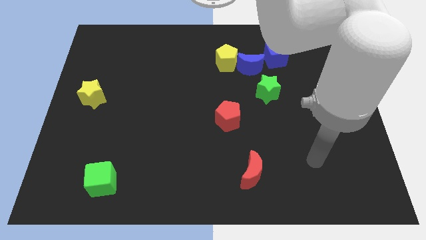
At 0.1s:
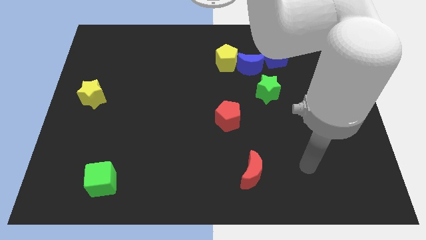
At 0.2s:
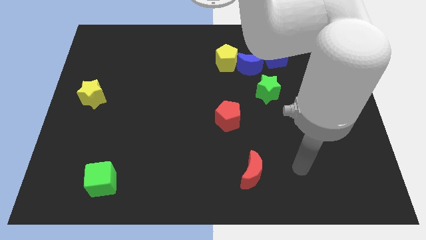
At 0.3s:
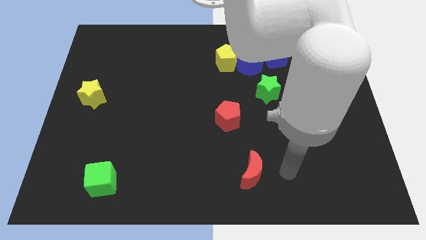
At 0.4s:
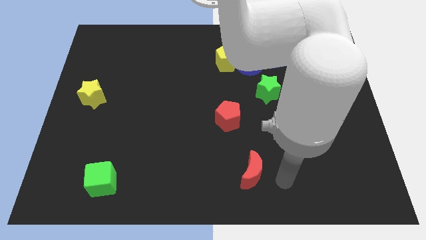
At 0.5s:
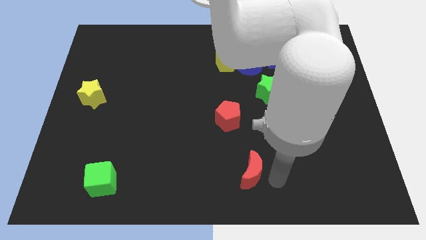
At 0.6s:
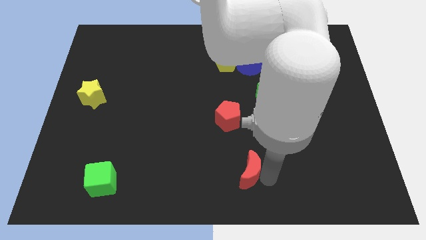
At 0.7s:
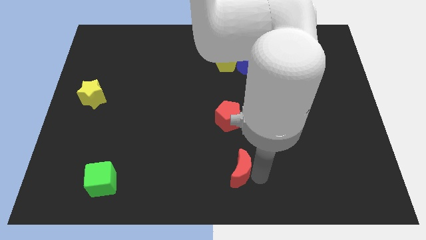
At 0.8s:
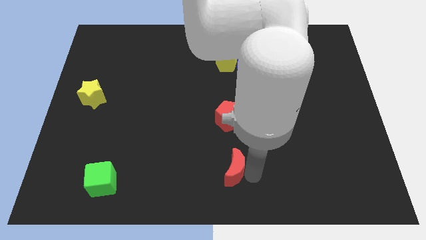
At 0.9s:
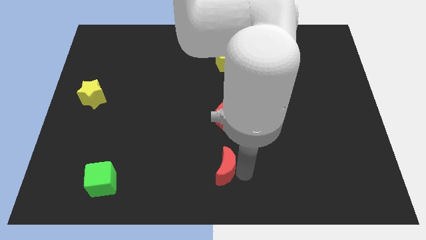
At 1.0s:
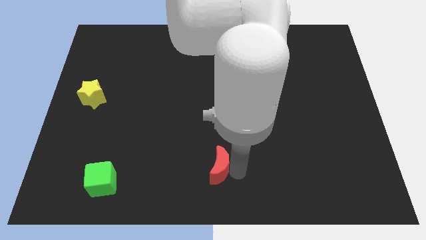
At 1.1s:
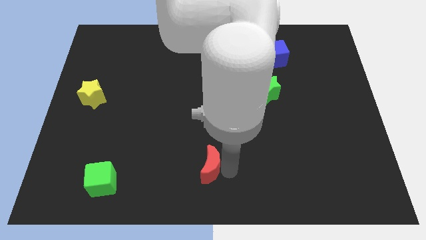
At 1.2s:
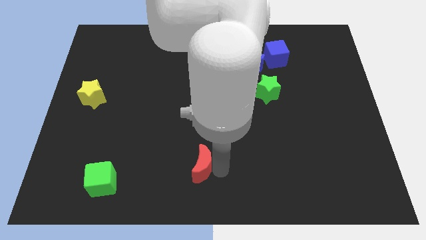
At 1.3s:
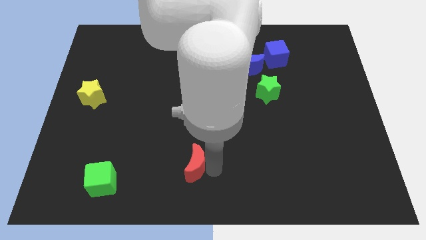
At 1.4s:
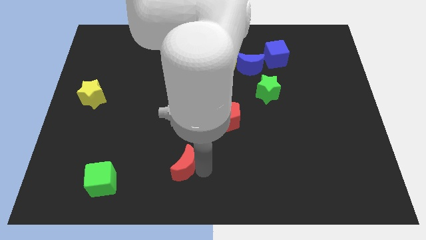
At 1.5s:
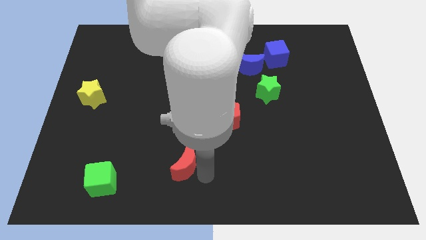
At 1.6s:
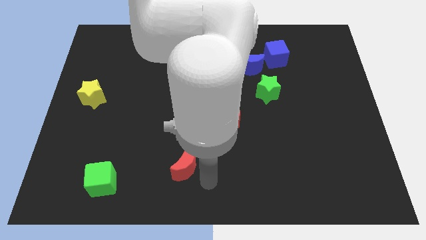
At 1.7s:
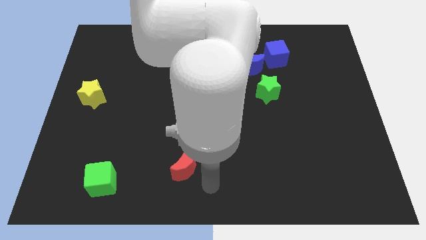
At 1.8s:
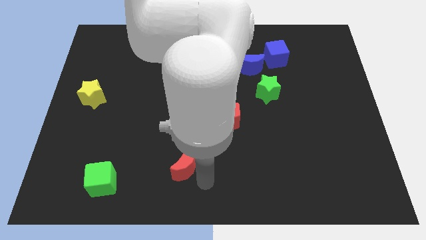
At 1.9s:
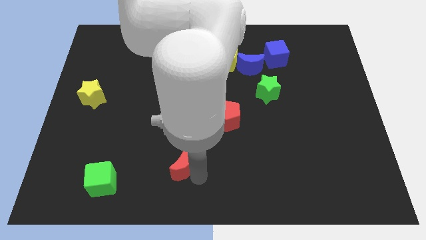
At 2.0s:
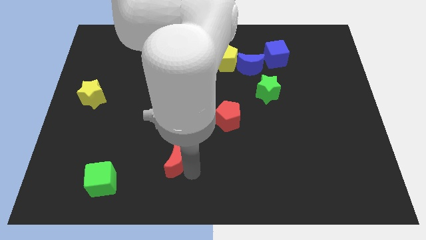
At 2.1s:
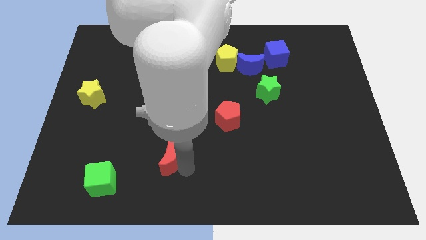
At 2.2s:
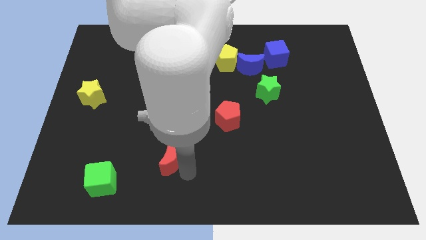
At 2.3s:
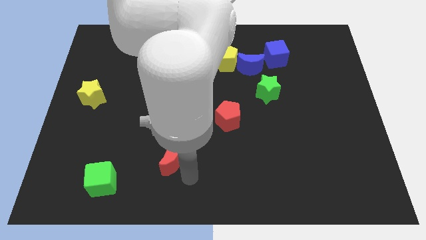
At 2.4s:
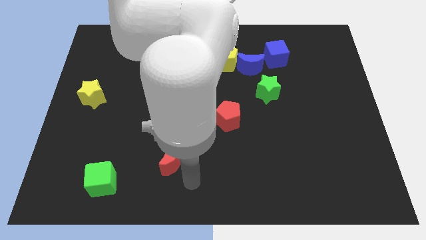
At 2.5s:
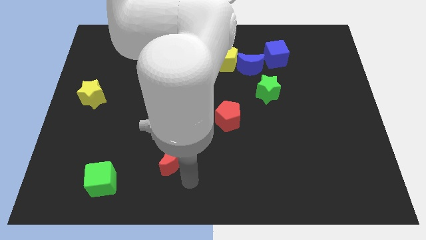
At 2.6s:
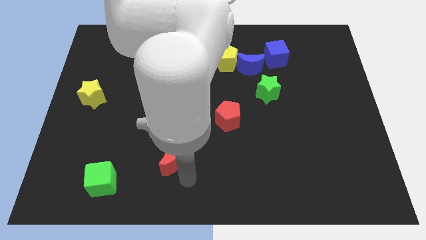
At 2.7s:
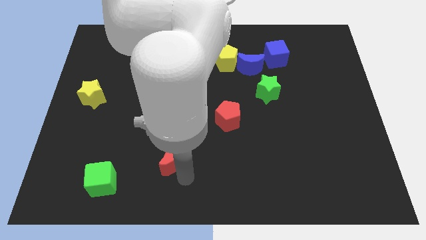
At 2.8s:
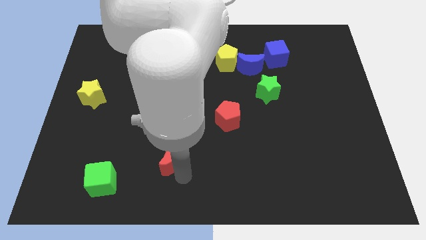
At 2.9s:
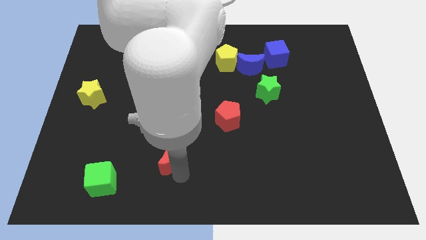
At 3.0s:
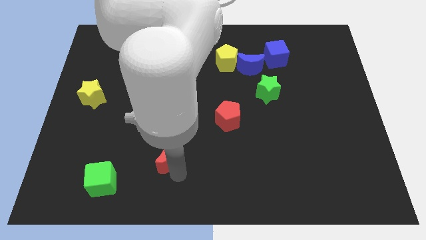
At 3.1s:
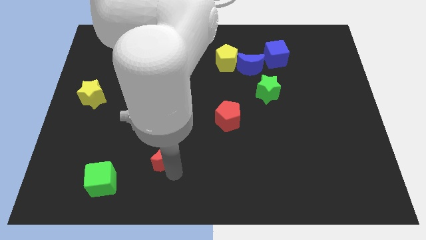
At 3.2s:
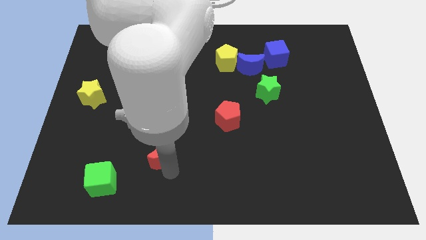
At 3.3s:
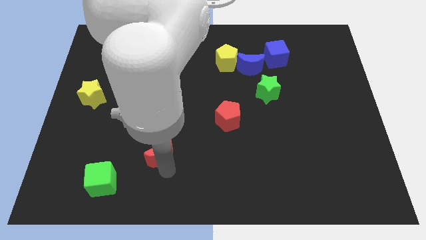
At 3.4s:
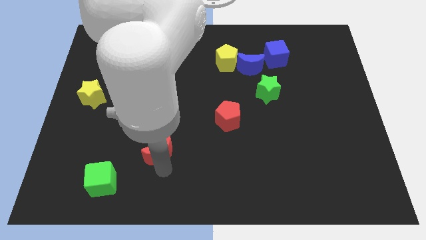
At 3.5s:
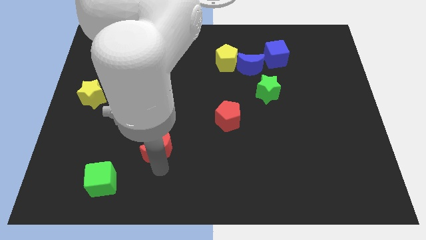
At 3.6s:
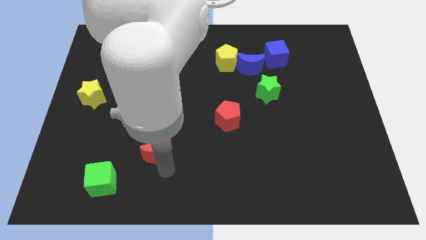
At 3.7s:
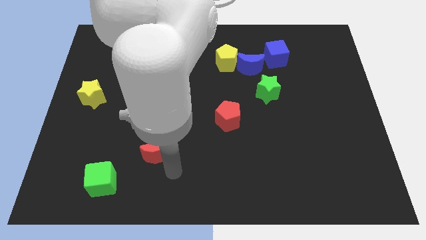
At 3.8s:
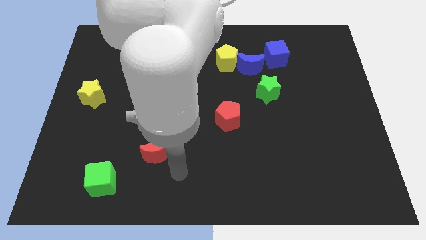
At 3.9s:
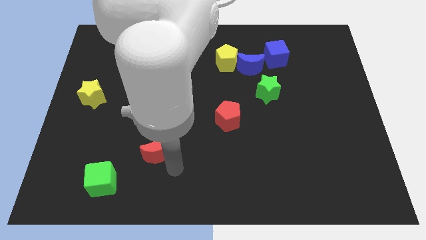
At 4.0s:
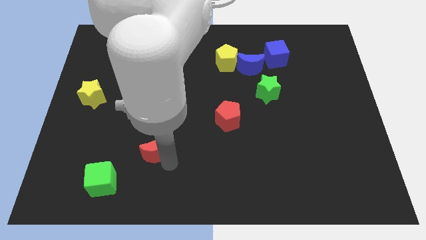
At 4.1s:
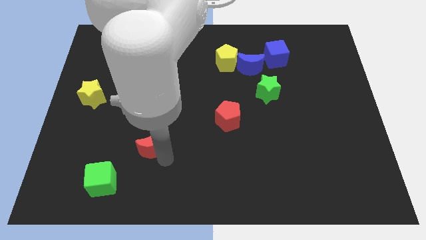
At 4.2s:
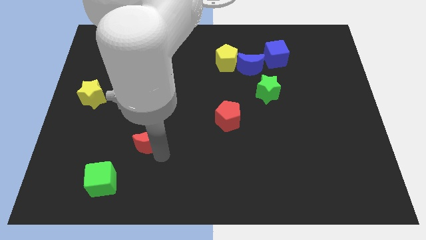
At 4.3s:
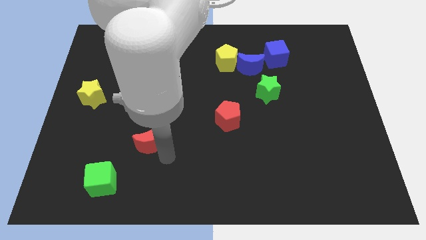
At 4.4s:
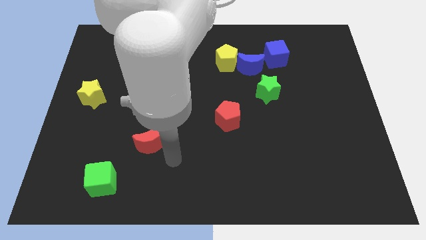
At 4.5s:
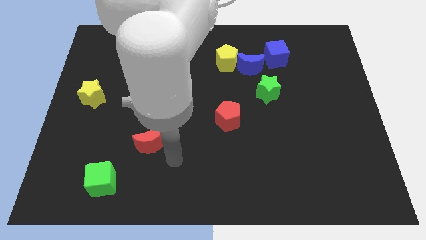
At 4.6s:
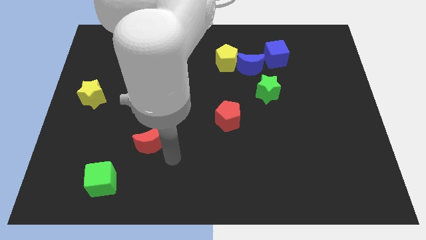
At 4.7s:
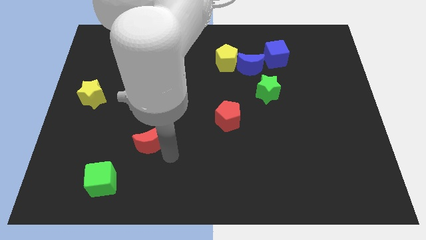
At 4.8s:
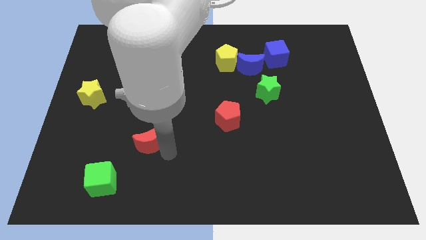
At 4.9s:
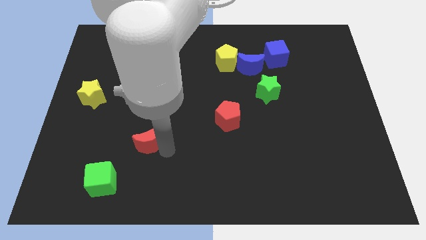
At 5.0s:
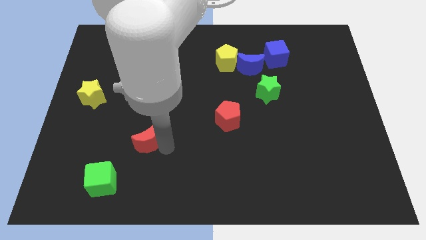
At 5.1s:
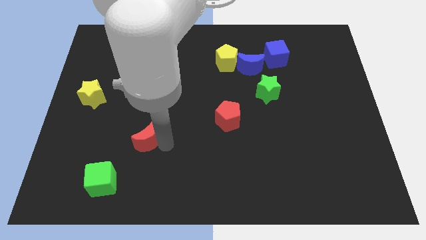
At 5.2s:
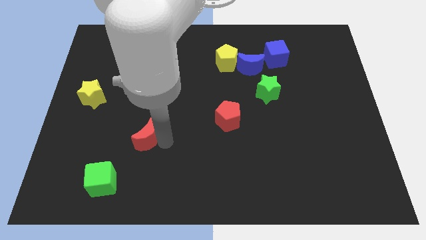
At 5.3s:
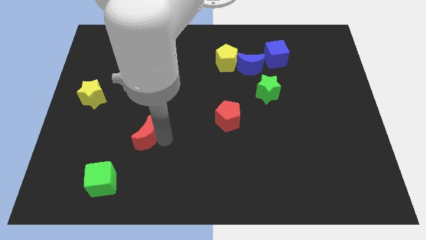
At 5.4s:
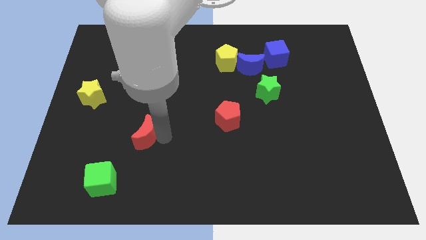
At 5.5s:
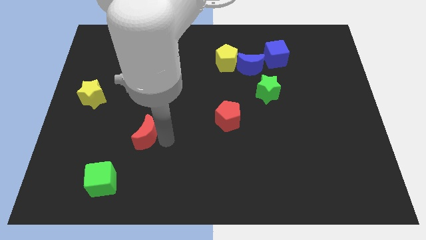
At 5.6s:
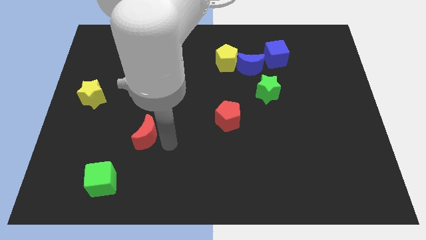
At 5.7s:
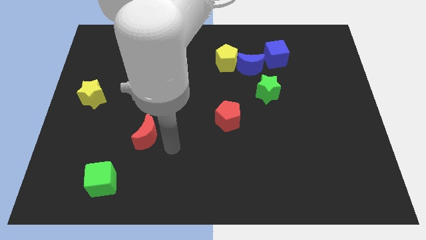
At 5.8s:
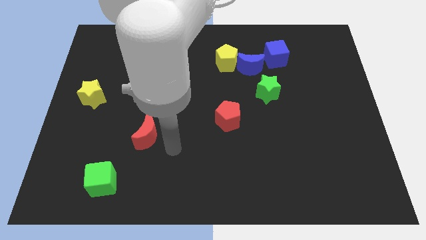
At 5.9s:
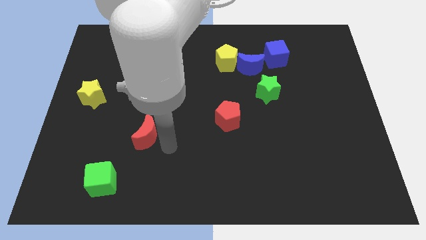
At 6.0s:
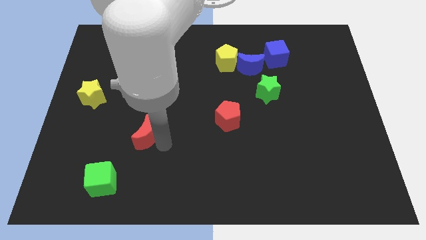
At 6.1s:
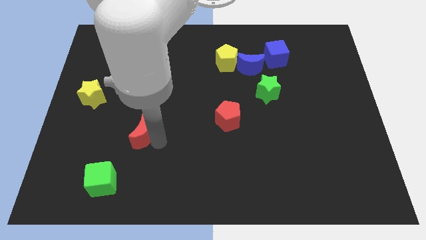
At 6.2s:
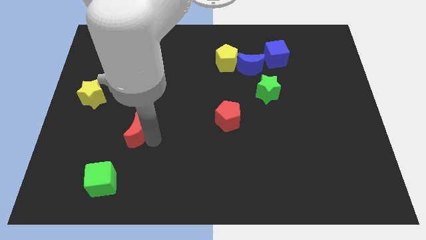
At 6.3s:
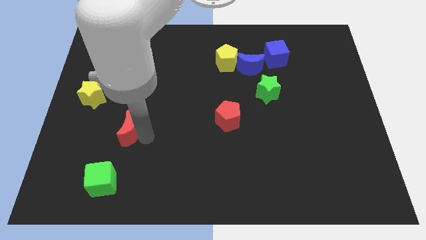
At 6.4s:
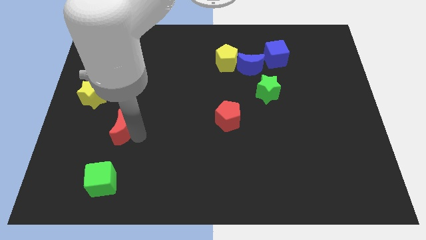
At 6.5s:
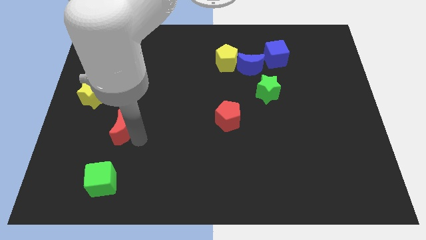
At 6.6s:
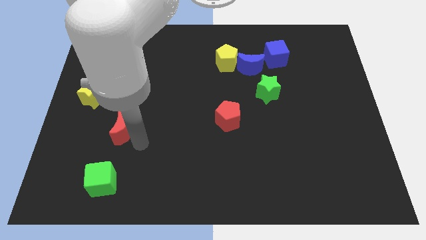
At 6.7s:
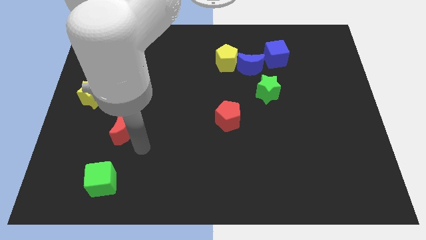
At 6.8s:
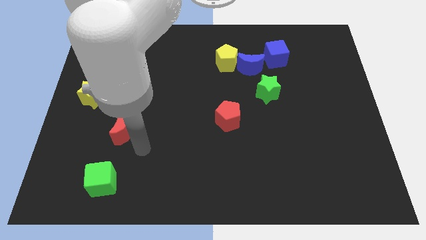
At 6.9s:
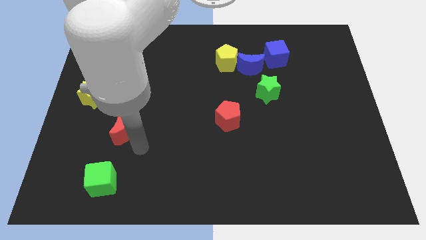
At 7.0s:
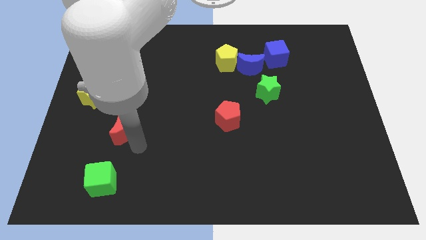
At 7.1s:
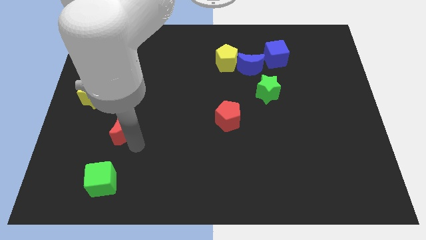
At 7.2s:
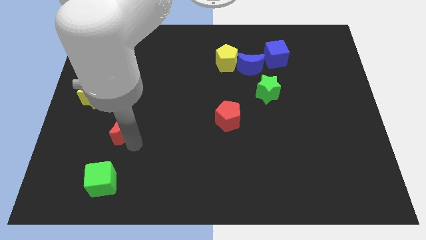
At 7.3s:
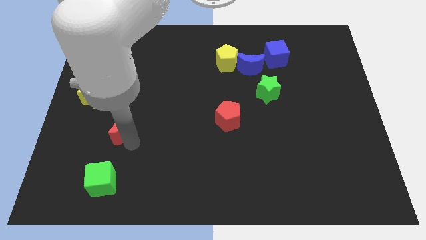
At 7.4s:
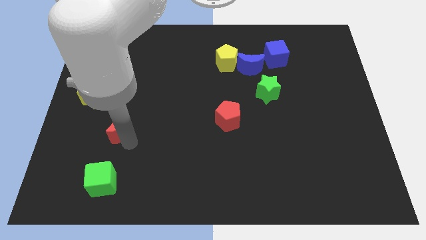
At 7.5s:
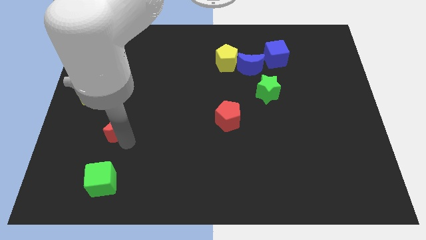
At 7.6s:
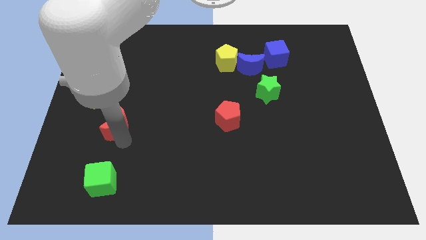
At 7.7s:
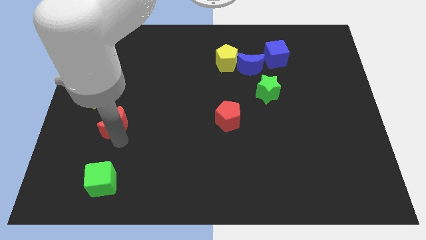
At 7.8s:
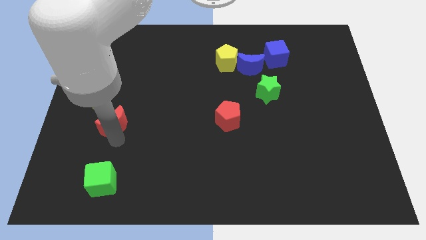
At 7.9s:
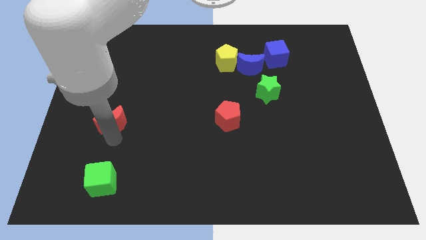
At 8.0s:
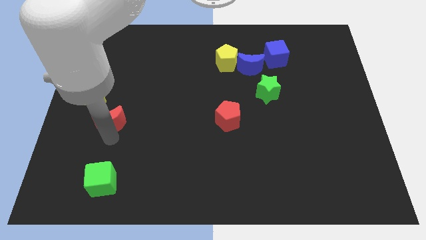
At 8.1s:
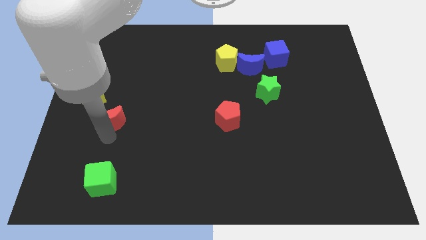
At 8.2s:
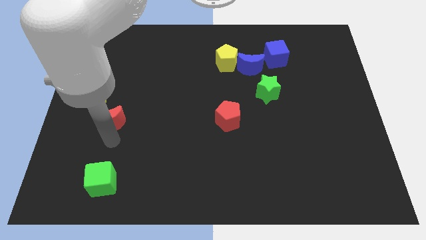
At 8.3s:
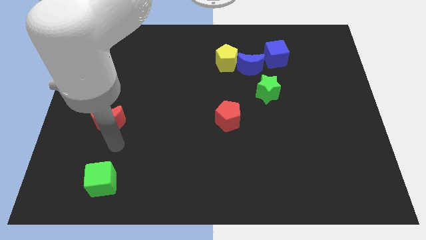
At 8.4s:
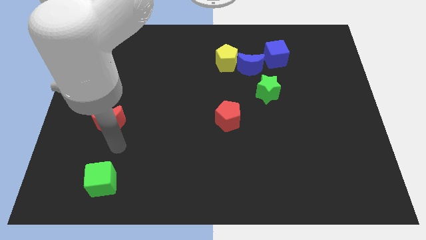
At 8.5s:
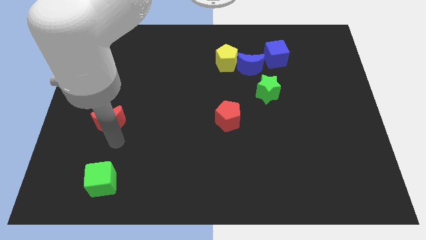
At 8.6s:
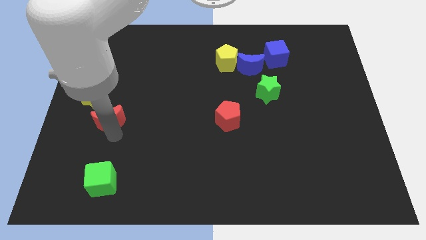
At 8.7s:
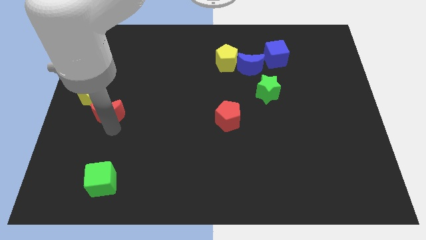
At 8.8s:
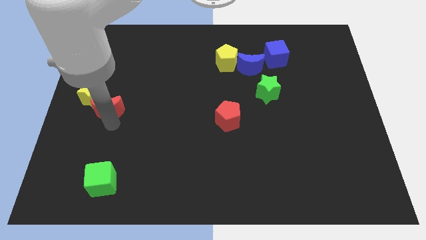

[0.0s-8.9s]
push the red moon to the yellow star
